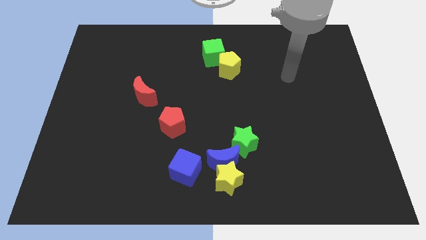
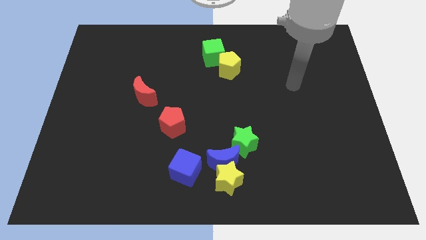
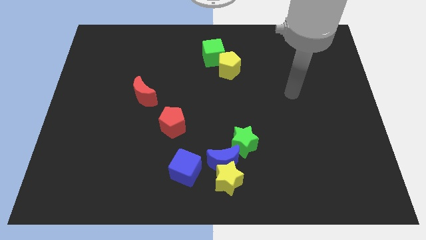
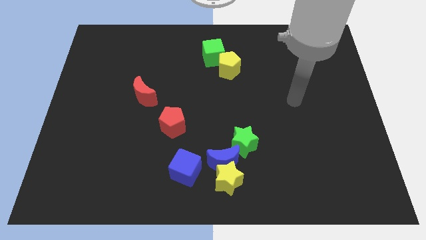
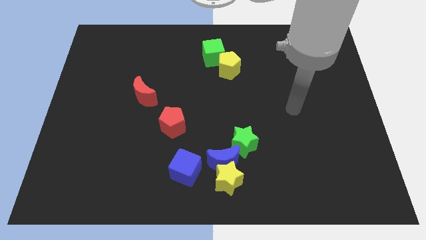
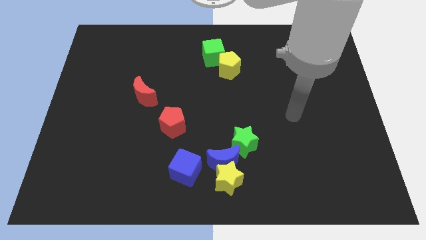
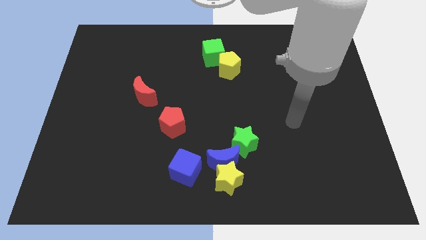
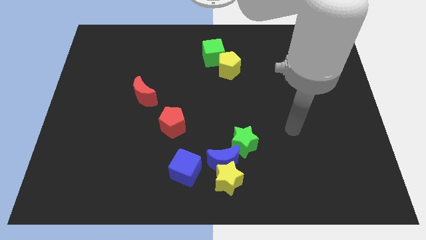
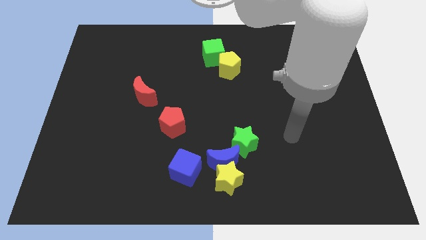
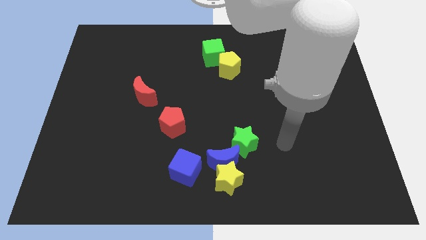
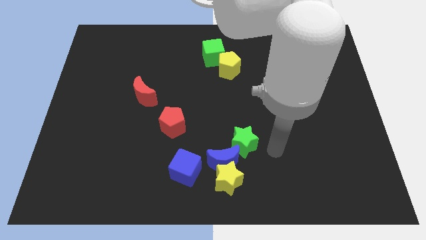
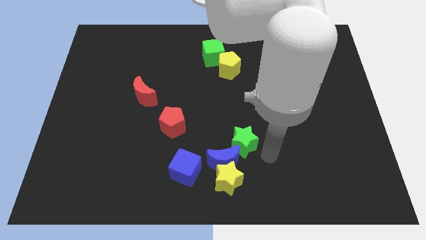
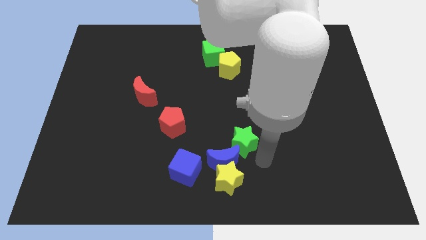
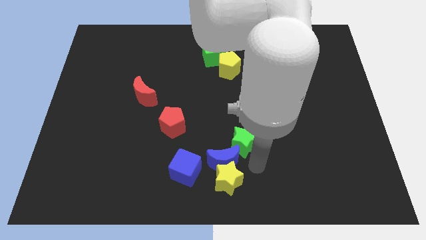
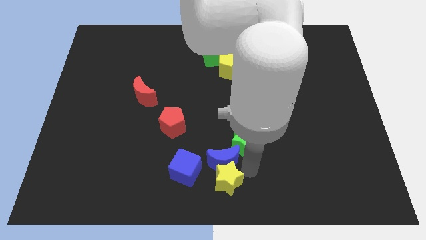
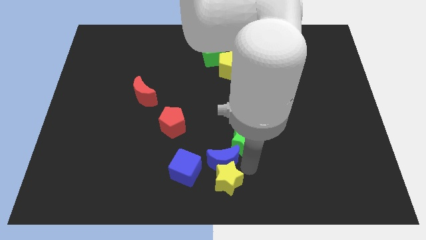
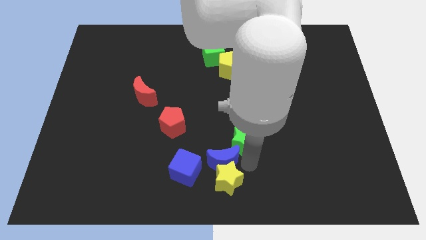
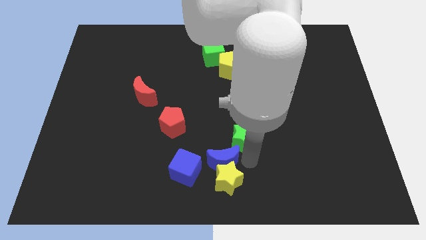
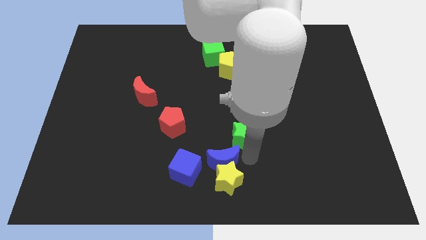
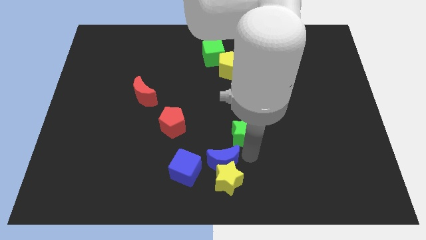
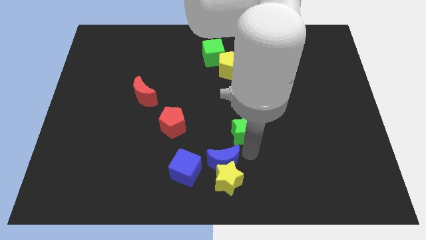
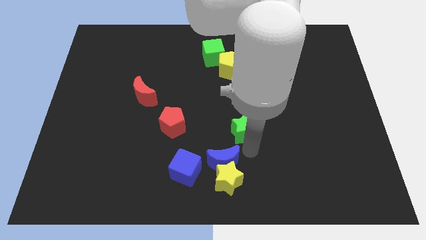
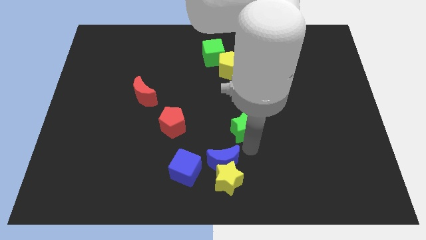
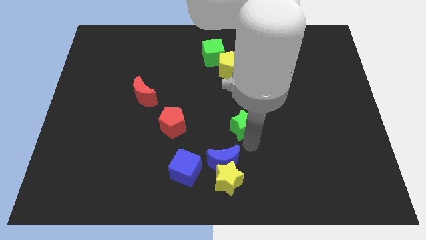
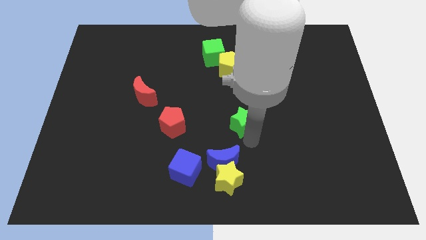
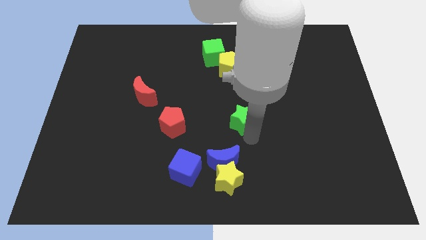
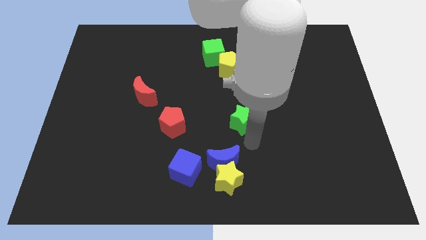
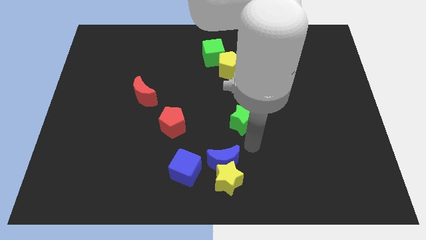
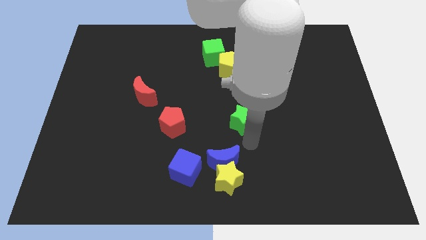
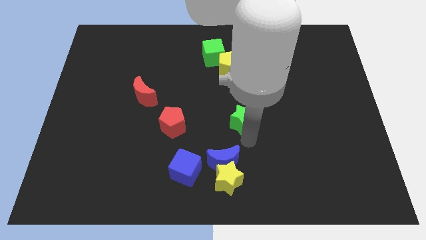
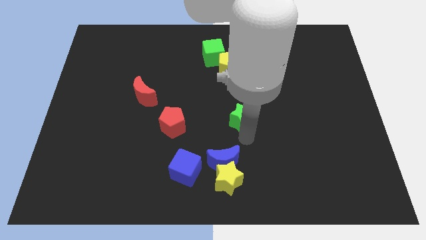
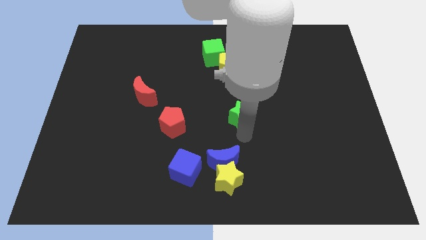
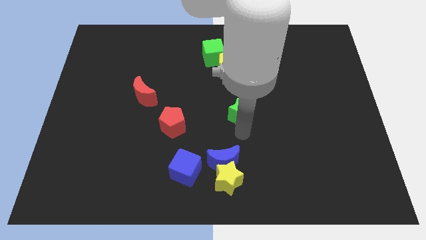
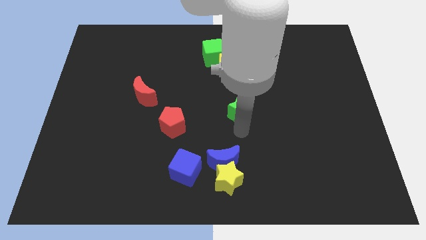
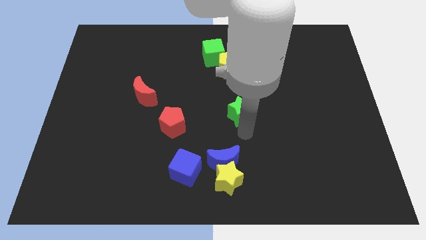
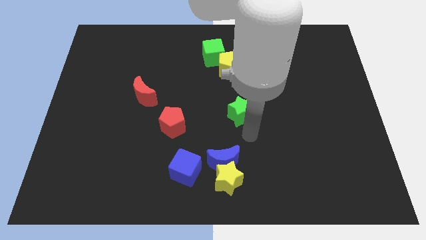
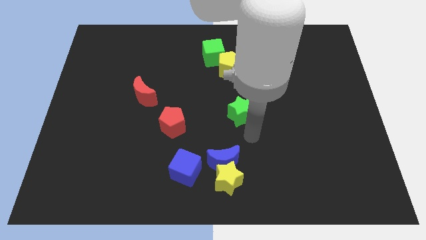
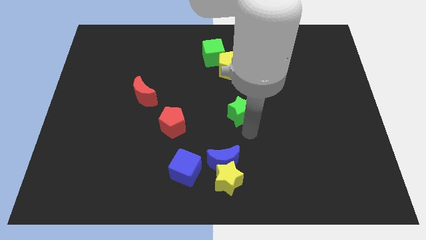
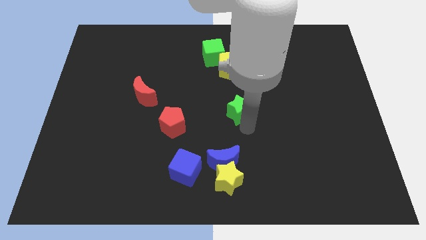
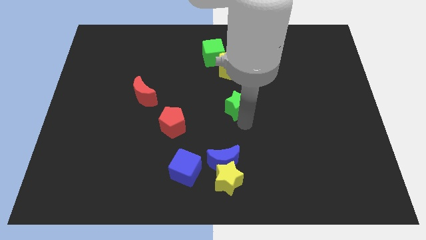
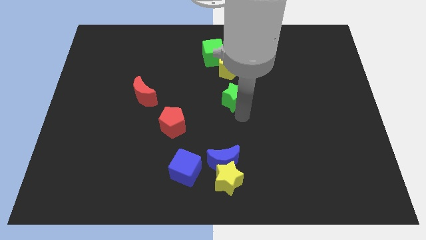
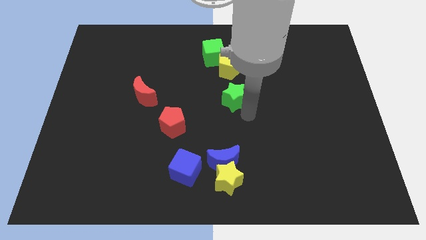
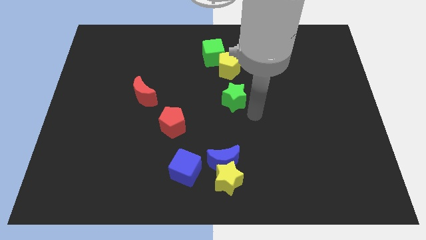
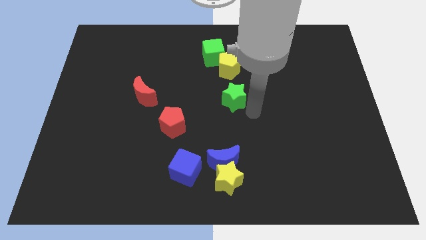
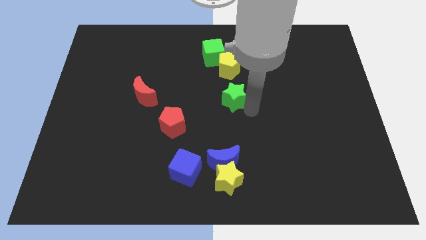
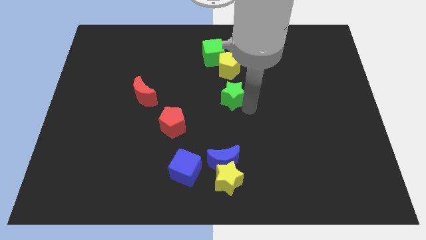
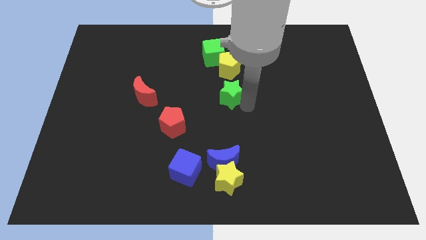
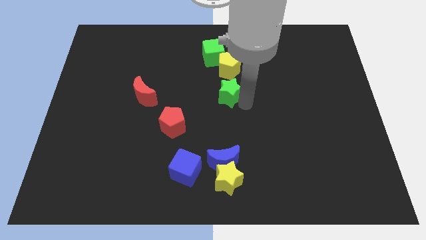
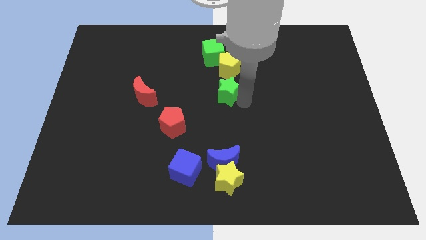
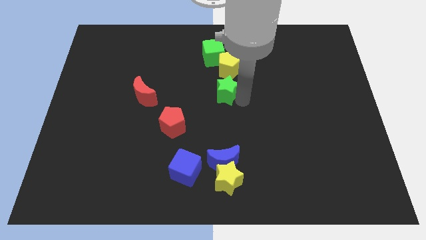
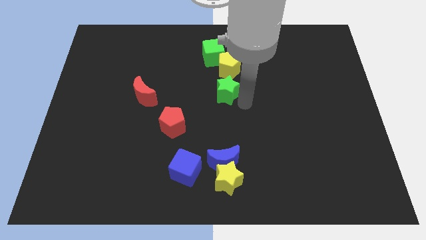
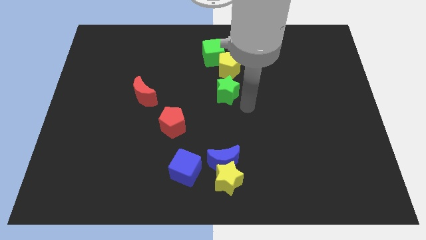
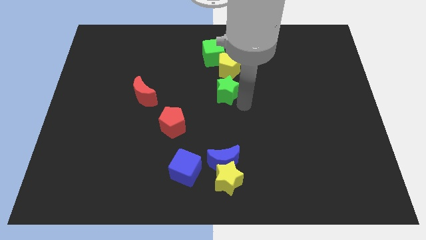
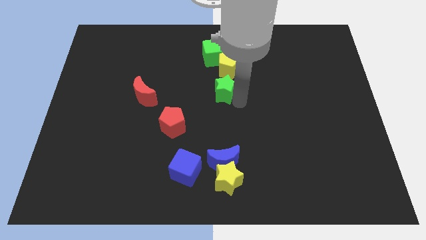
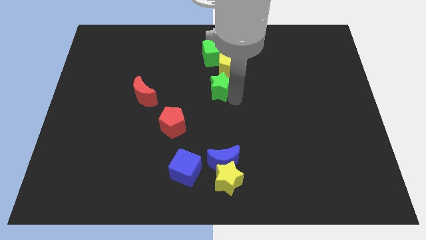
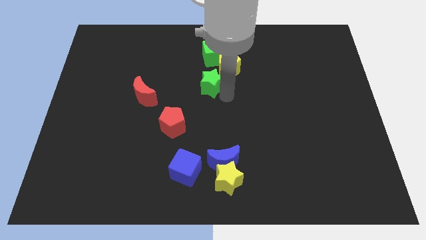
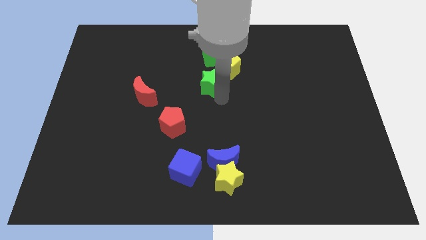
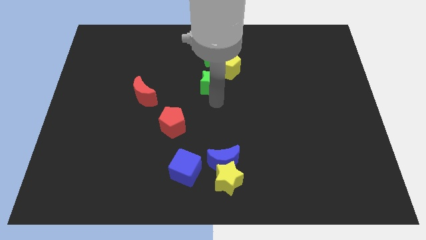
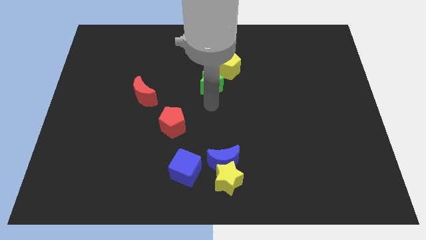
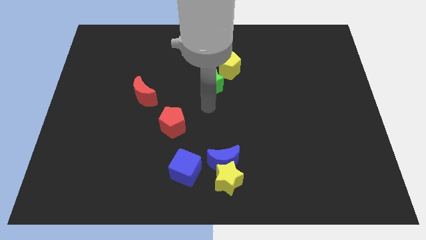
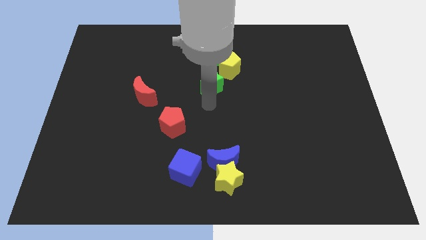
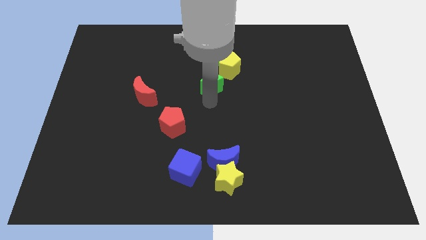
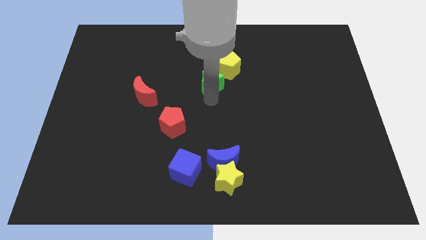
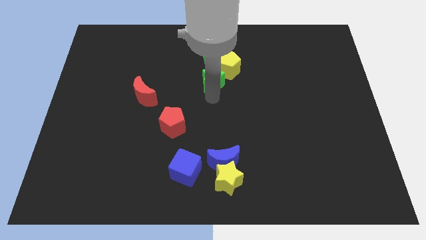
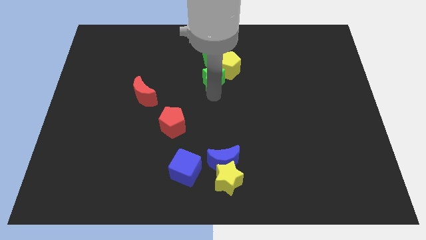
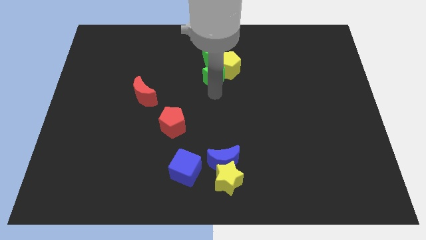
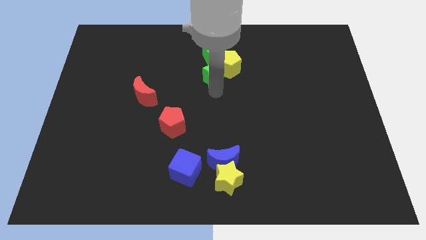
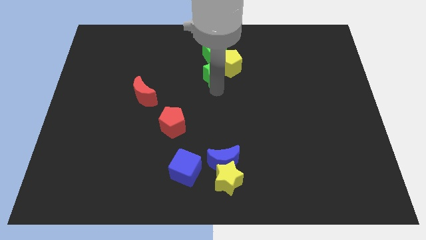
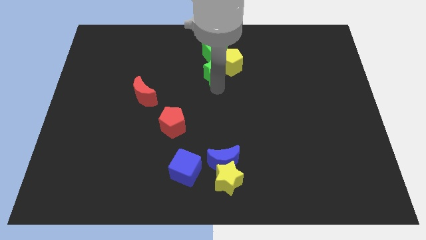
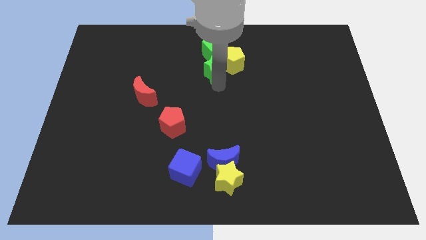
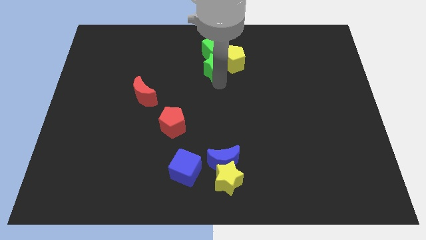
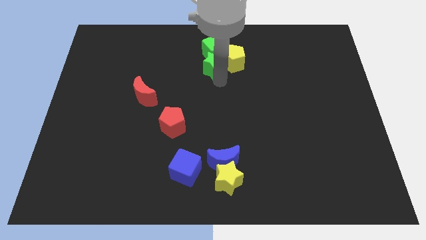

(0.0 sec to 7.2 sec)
move the green star close to the green cube

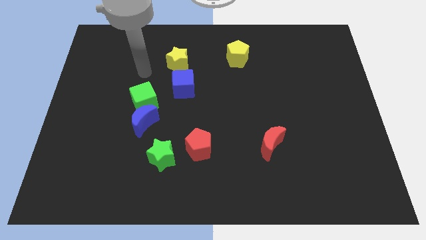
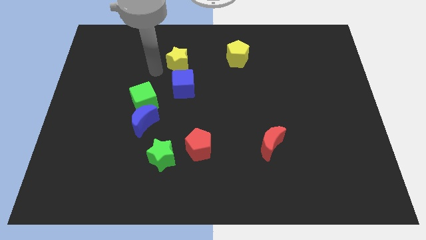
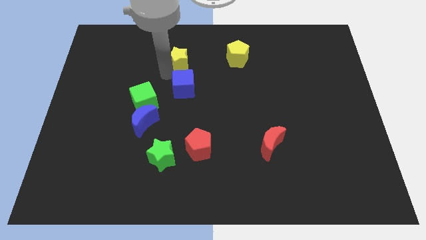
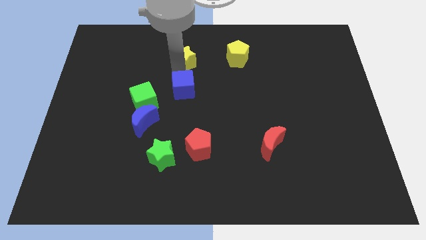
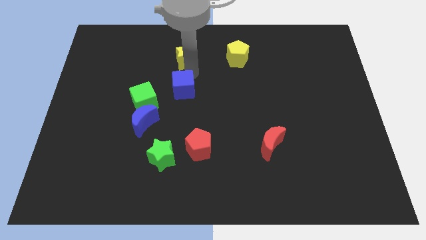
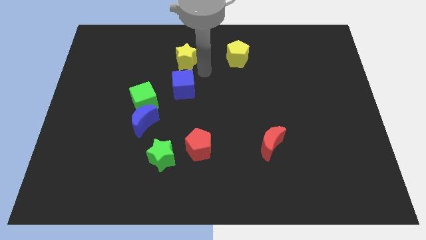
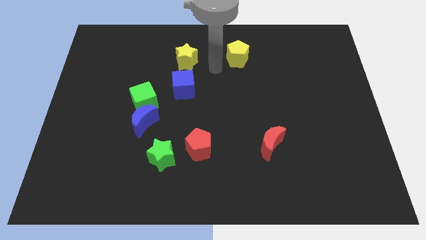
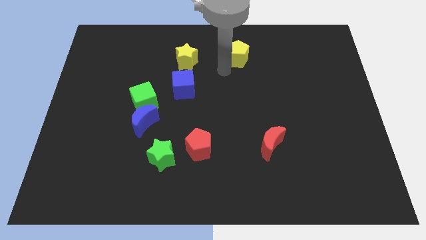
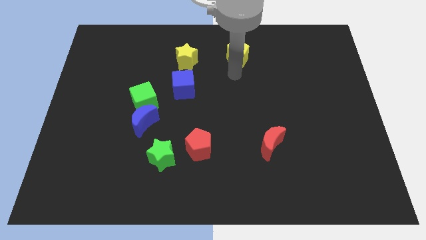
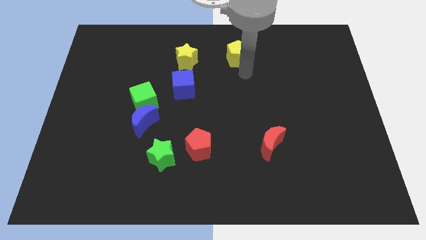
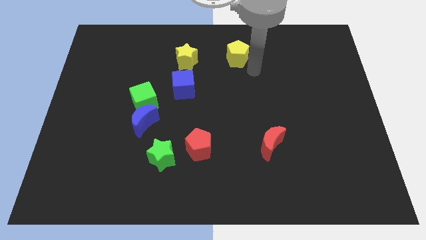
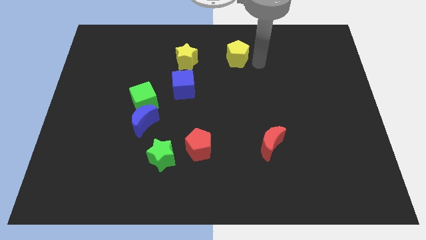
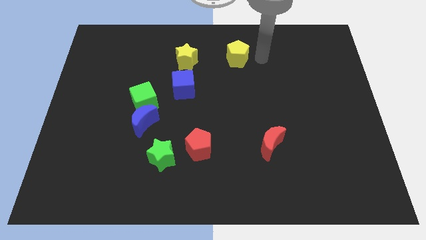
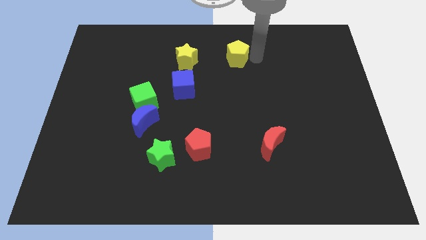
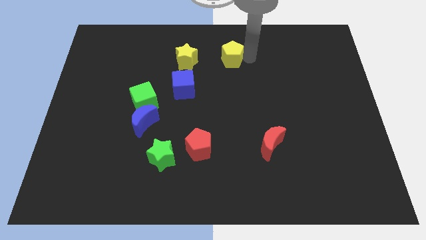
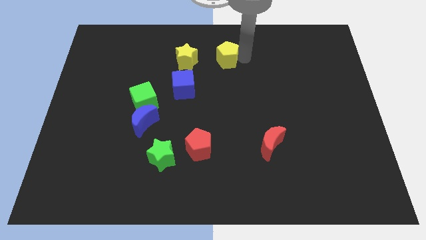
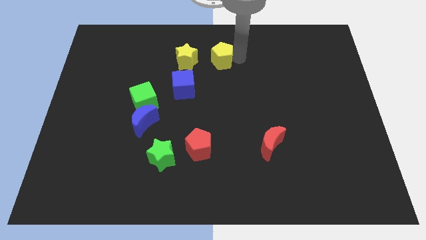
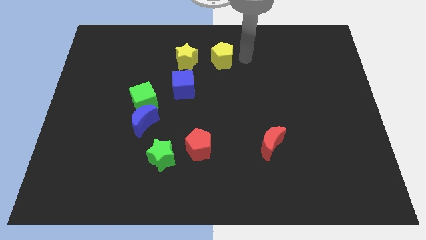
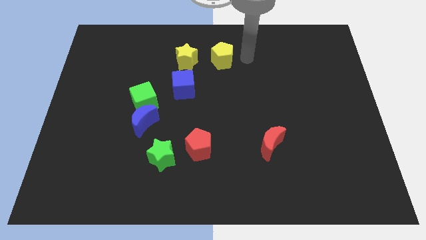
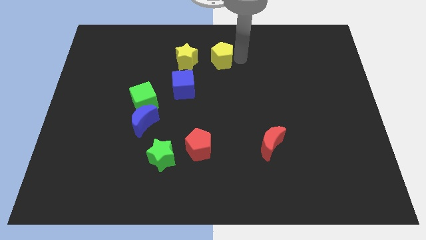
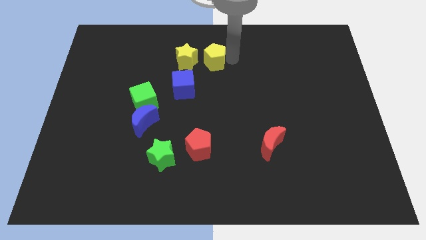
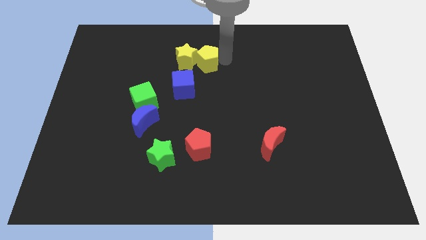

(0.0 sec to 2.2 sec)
slide the yellow pentagon close to the yellow star
